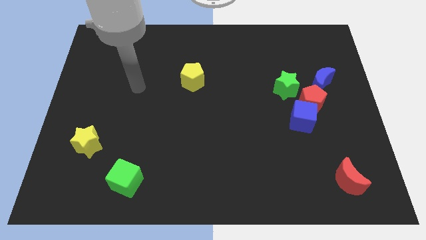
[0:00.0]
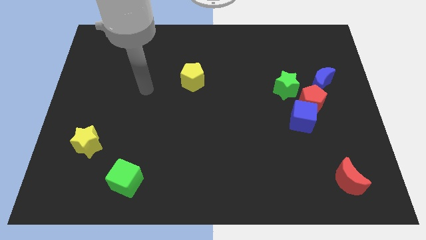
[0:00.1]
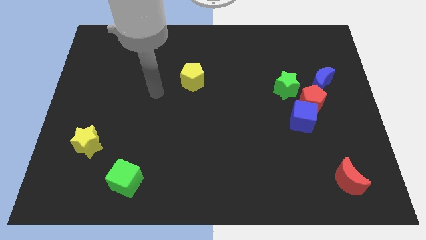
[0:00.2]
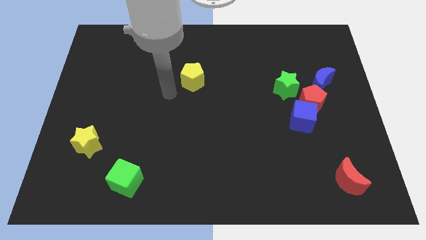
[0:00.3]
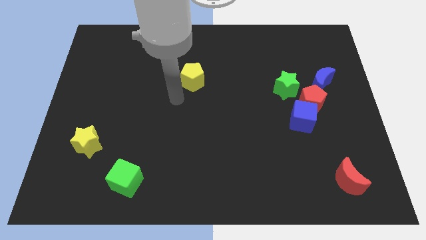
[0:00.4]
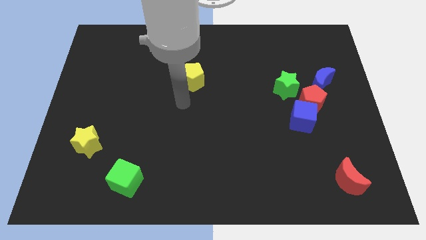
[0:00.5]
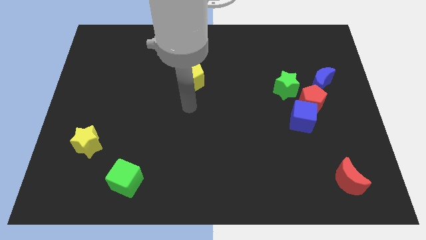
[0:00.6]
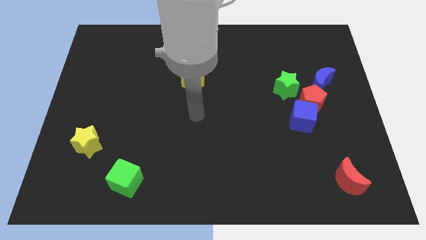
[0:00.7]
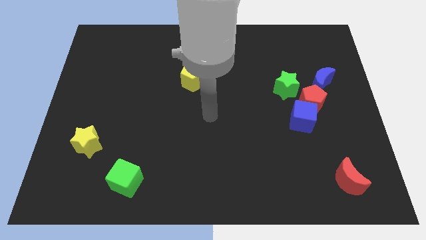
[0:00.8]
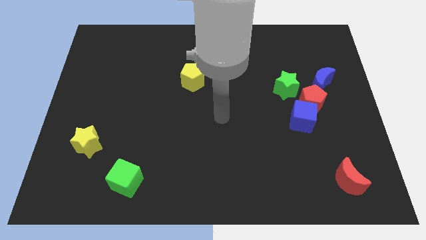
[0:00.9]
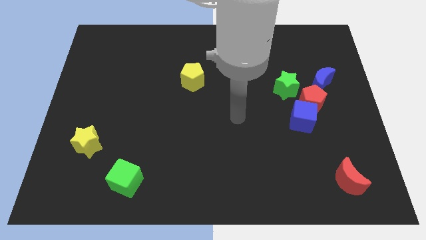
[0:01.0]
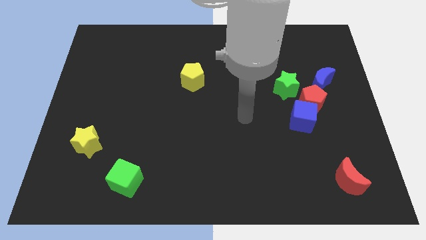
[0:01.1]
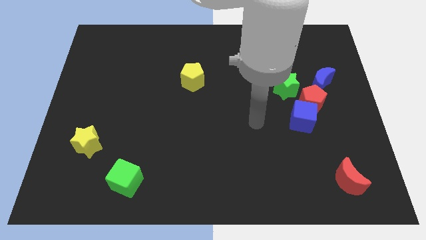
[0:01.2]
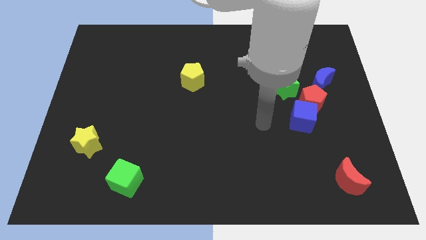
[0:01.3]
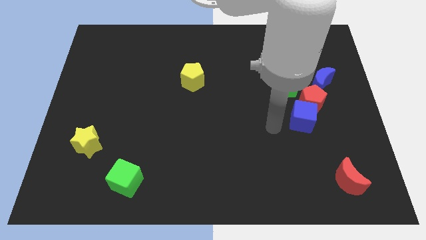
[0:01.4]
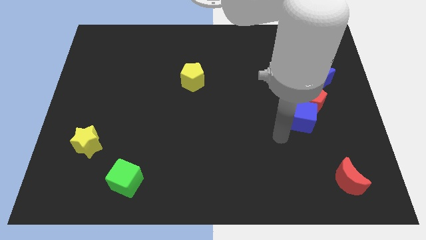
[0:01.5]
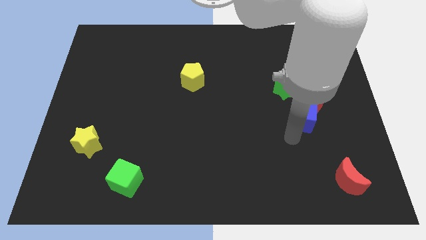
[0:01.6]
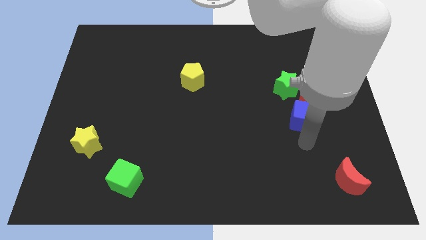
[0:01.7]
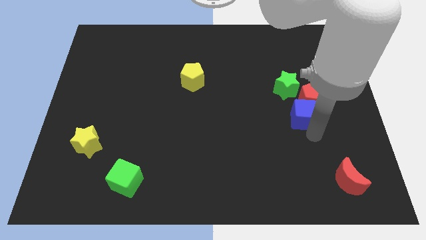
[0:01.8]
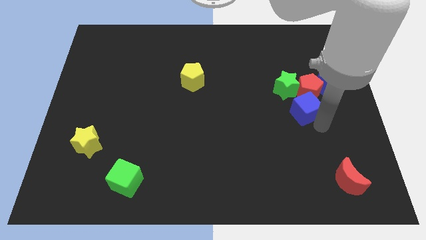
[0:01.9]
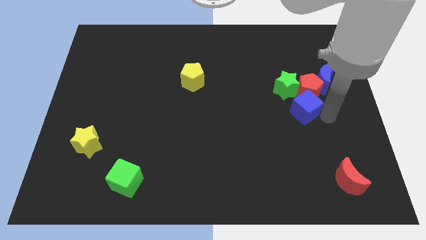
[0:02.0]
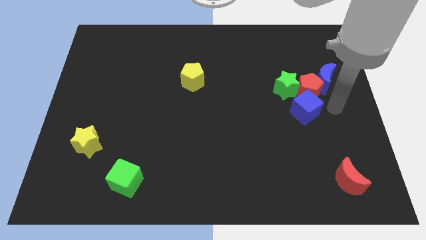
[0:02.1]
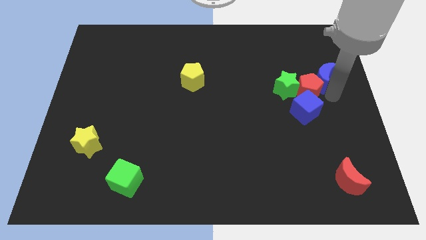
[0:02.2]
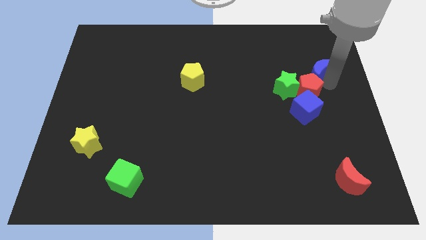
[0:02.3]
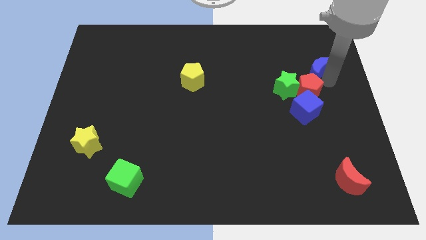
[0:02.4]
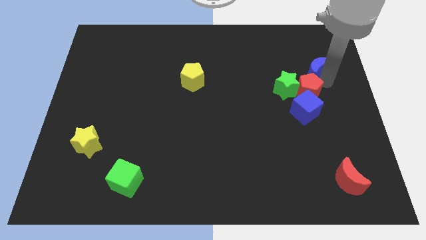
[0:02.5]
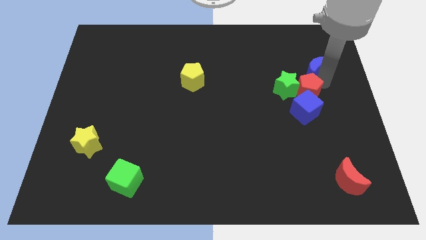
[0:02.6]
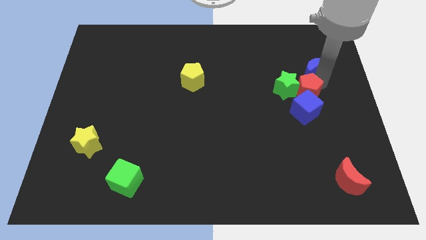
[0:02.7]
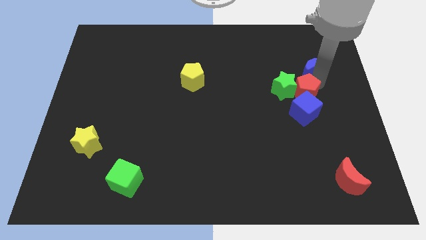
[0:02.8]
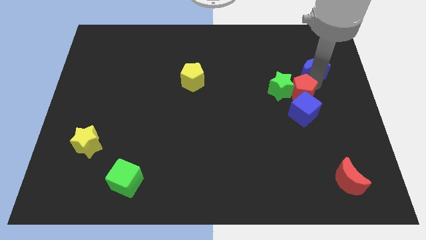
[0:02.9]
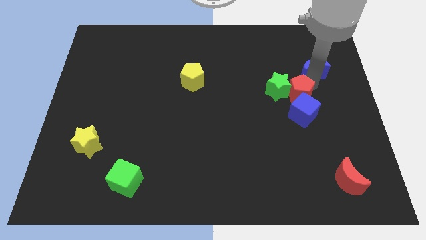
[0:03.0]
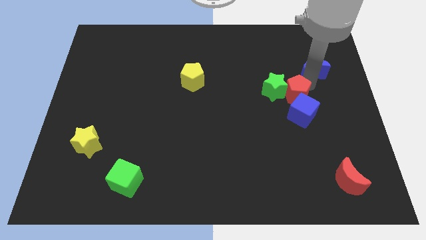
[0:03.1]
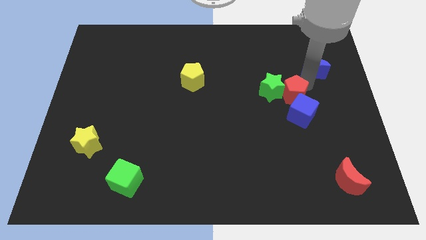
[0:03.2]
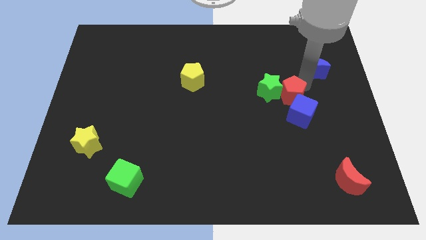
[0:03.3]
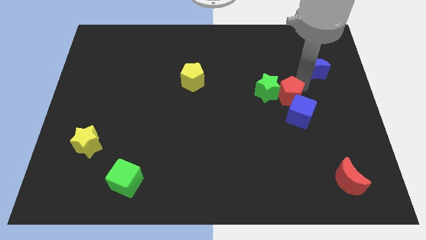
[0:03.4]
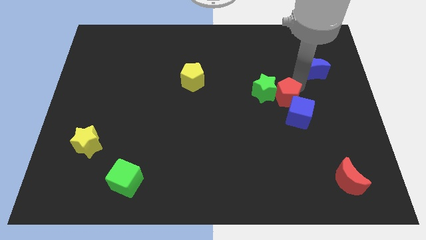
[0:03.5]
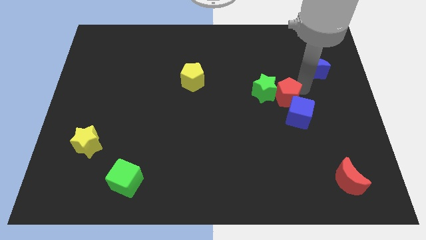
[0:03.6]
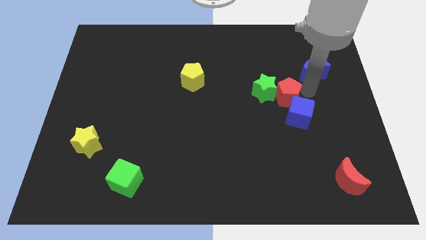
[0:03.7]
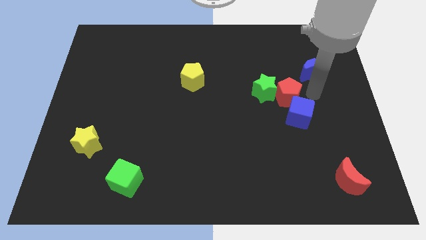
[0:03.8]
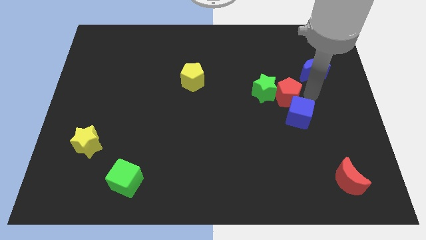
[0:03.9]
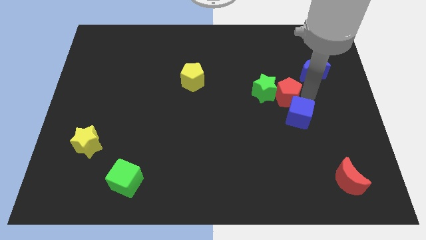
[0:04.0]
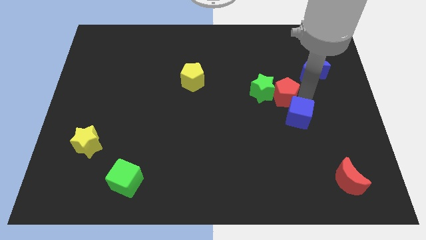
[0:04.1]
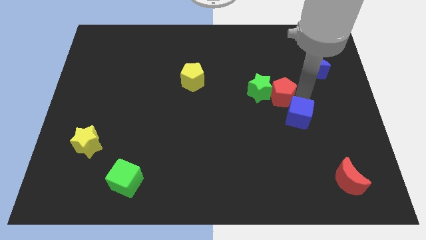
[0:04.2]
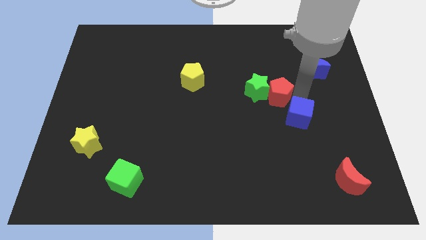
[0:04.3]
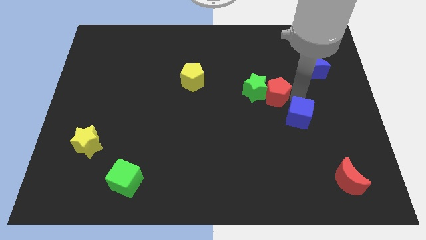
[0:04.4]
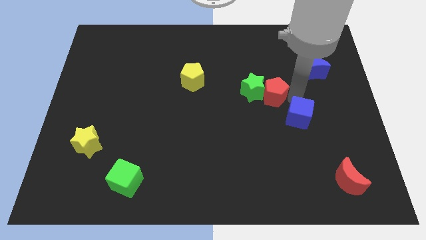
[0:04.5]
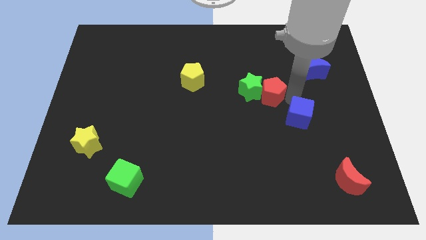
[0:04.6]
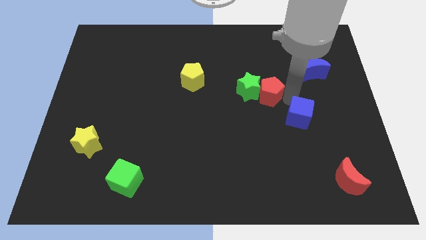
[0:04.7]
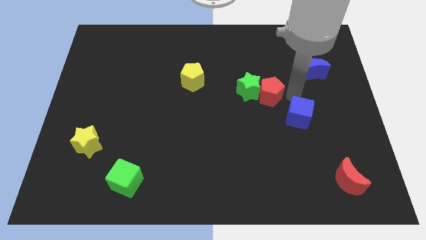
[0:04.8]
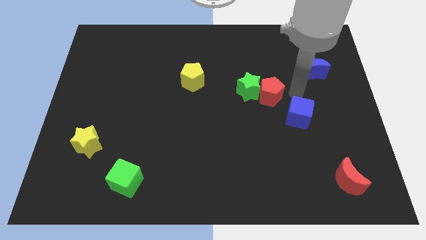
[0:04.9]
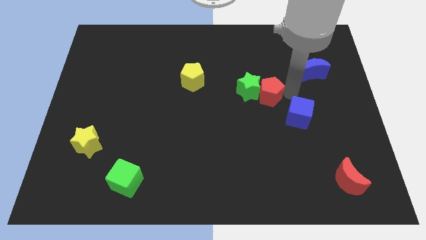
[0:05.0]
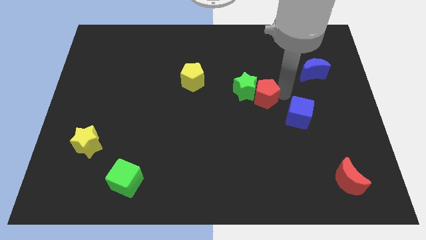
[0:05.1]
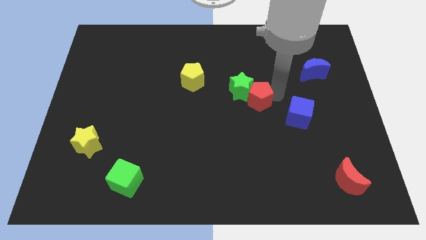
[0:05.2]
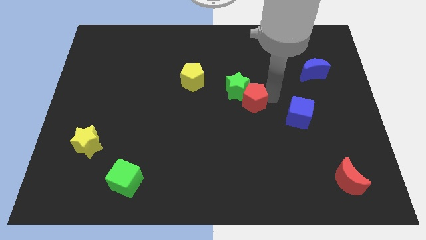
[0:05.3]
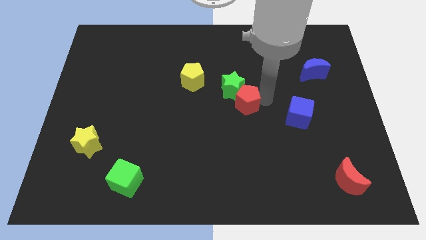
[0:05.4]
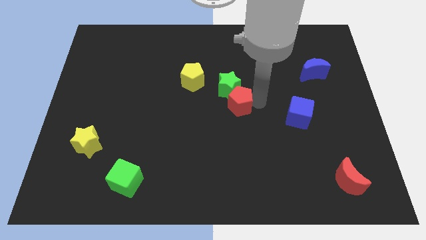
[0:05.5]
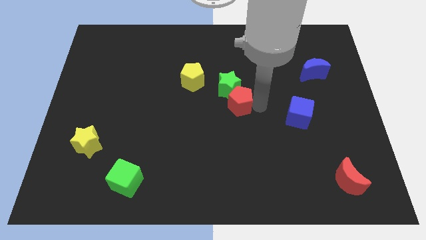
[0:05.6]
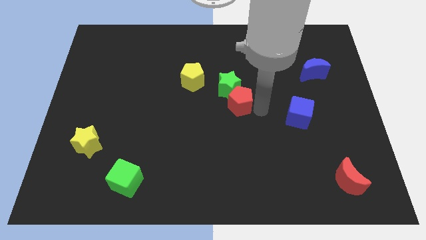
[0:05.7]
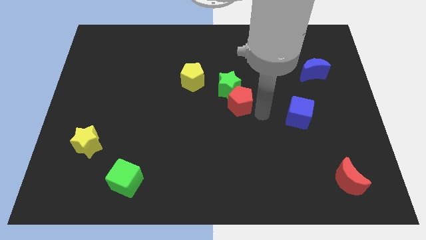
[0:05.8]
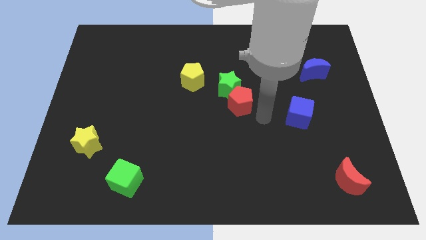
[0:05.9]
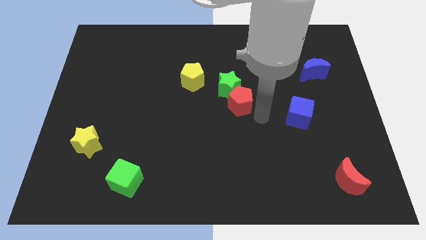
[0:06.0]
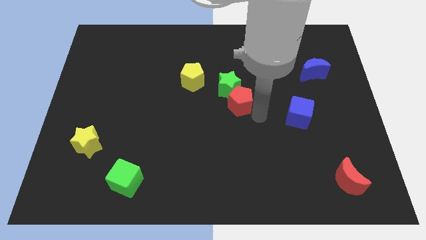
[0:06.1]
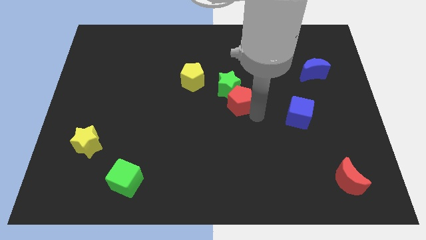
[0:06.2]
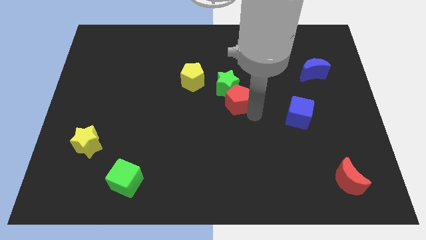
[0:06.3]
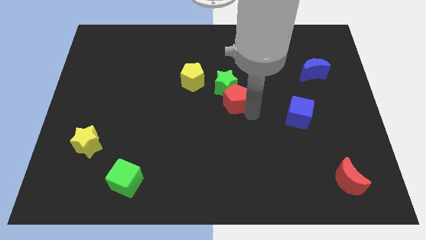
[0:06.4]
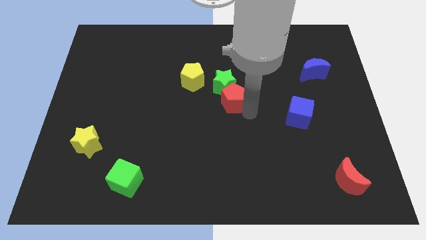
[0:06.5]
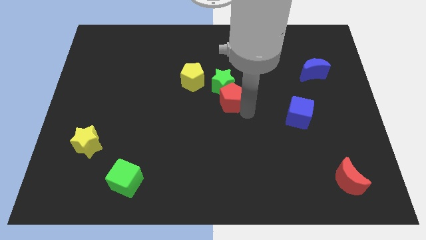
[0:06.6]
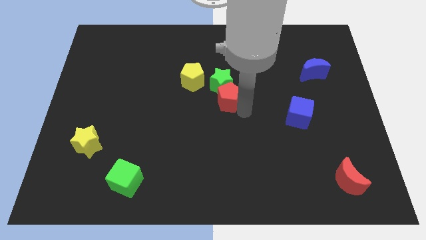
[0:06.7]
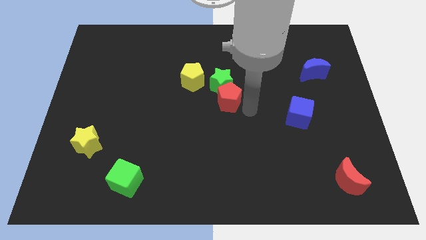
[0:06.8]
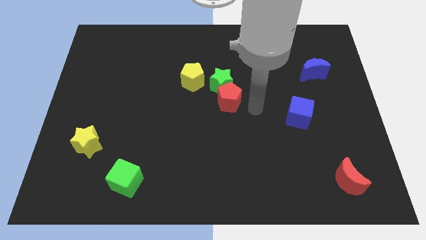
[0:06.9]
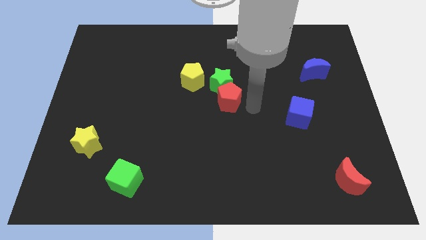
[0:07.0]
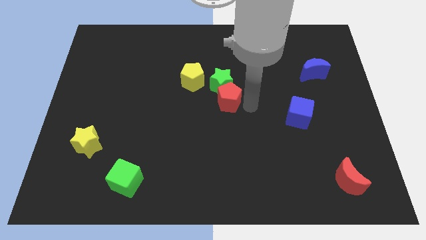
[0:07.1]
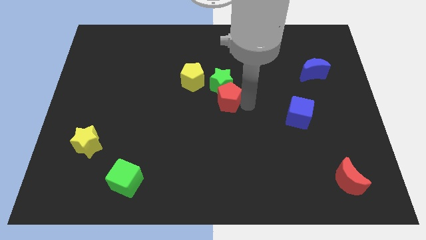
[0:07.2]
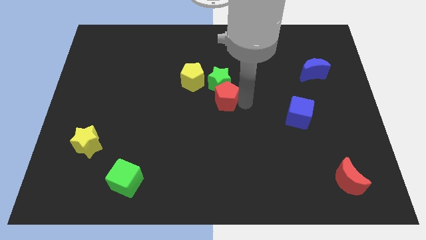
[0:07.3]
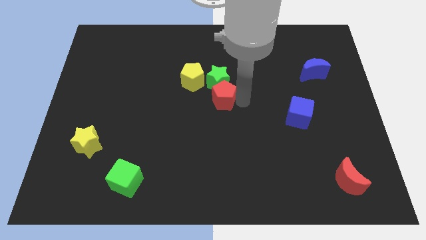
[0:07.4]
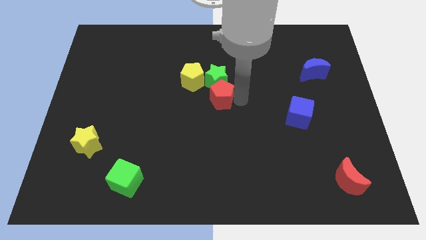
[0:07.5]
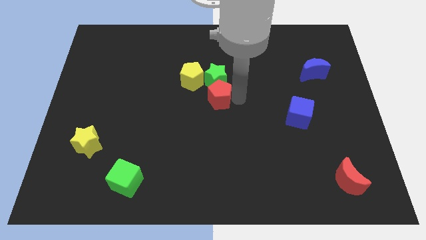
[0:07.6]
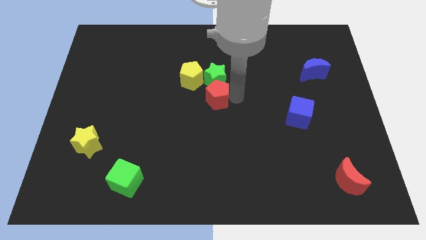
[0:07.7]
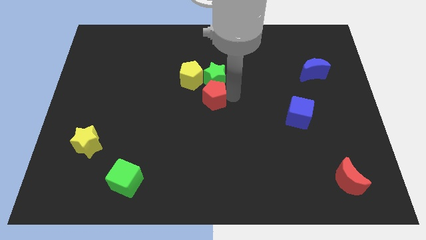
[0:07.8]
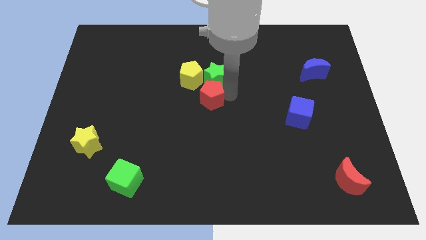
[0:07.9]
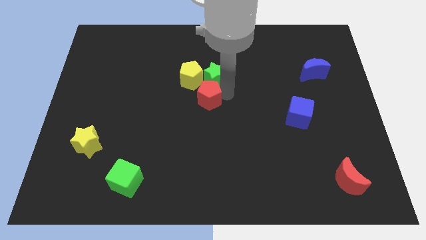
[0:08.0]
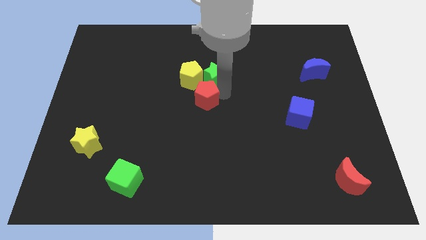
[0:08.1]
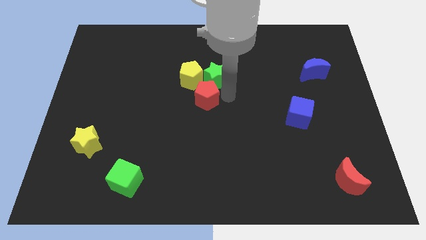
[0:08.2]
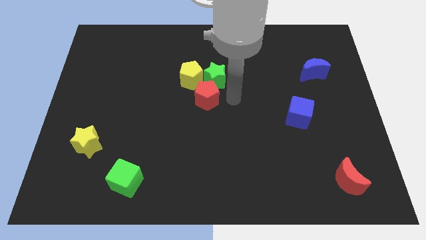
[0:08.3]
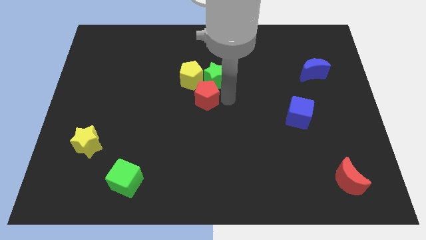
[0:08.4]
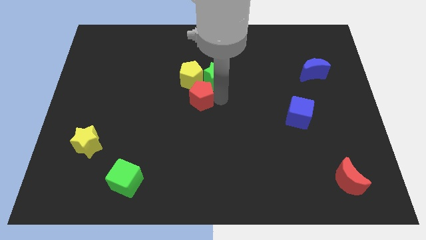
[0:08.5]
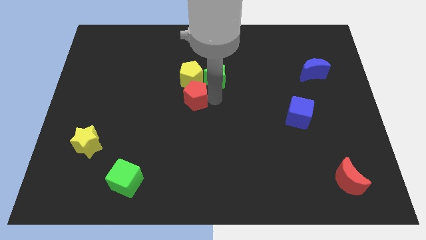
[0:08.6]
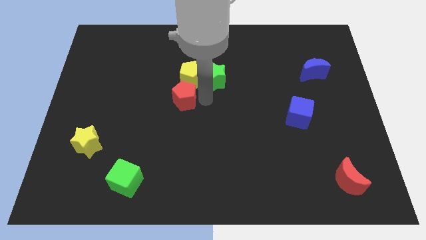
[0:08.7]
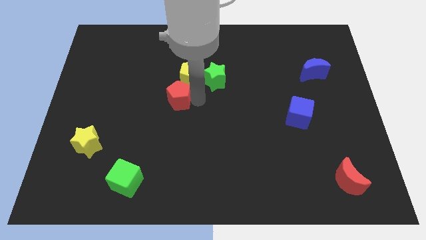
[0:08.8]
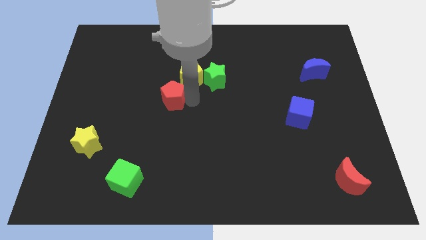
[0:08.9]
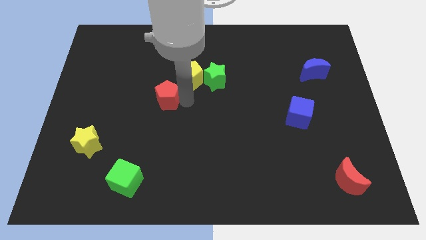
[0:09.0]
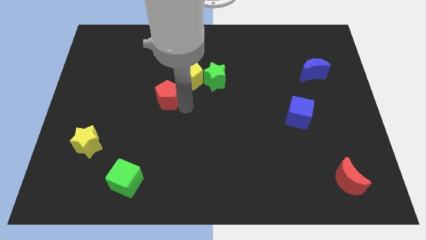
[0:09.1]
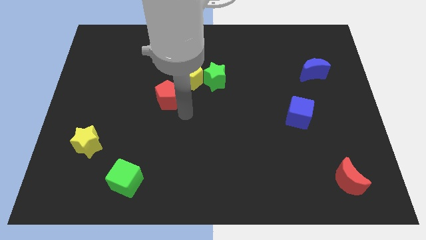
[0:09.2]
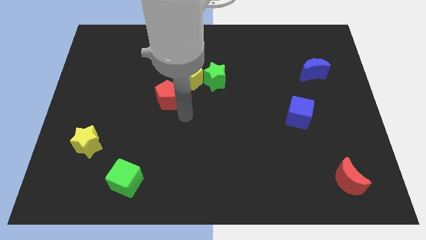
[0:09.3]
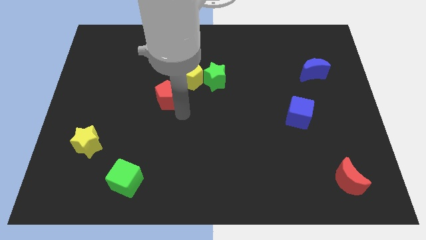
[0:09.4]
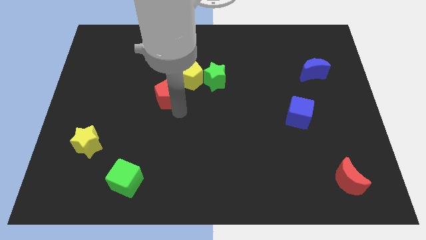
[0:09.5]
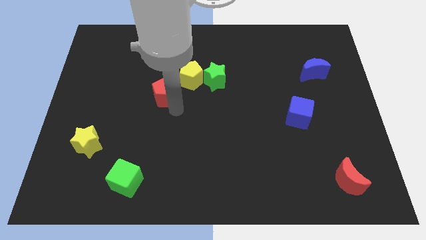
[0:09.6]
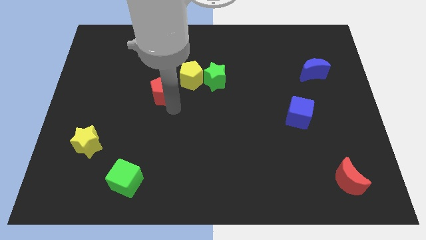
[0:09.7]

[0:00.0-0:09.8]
slide the red pentagon just left of the yellow pentagon
